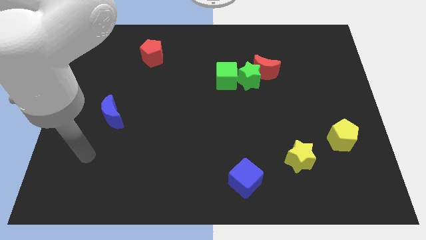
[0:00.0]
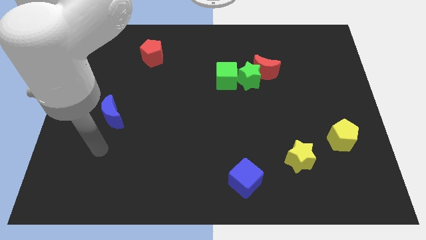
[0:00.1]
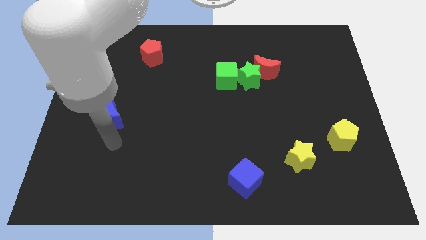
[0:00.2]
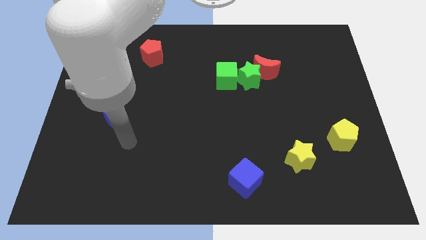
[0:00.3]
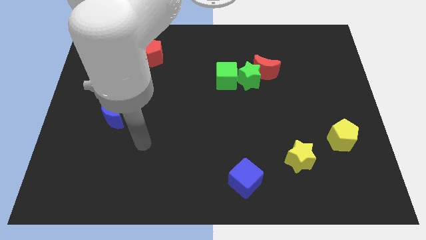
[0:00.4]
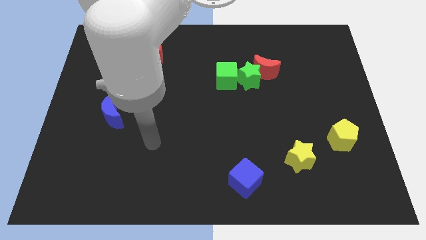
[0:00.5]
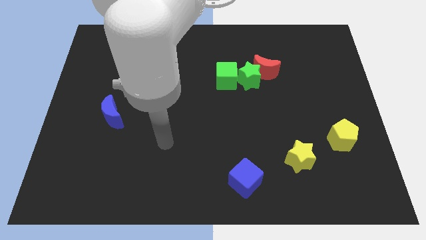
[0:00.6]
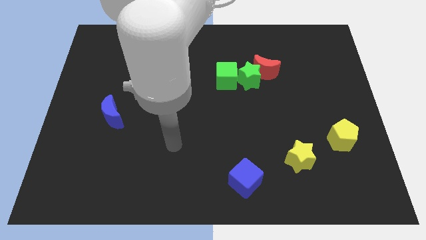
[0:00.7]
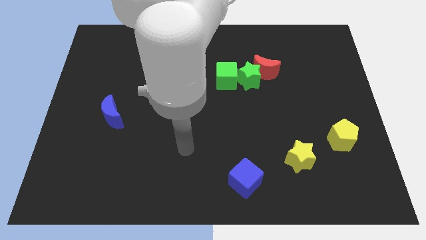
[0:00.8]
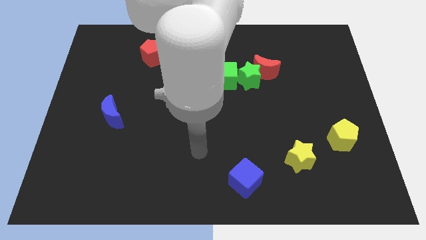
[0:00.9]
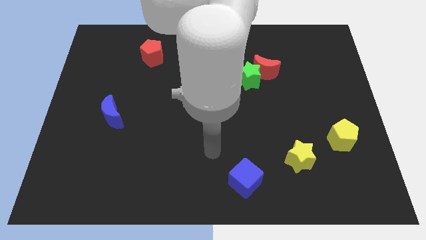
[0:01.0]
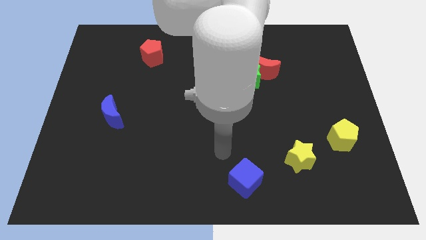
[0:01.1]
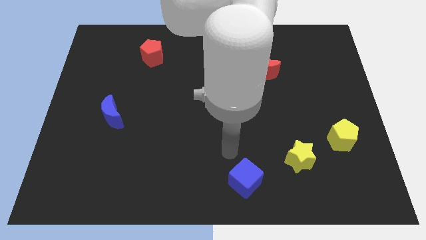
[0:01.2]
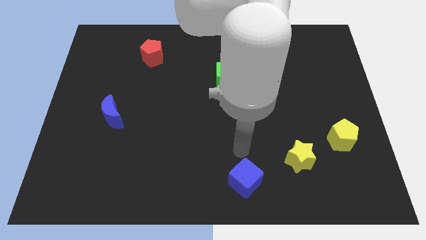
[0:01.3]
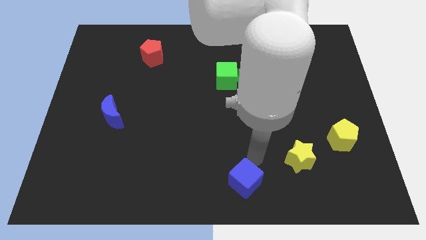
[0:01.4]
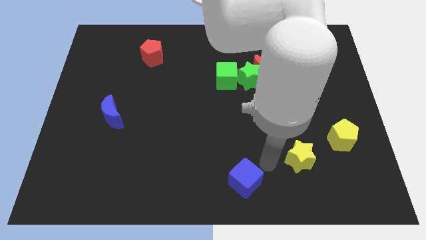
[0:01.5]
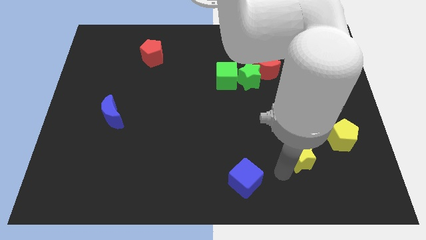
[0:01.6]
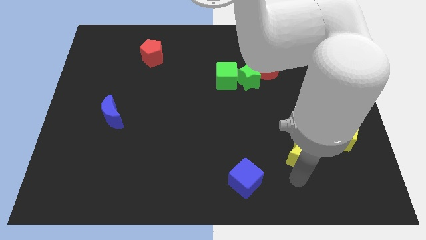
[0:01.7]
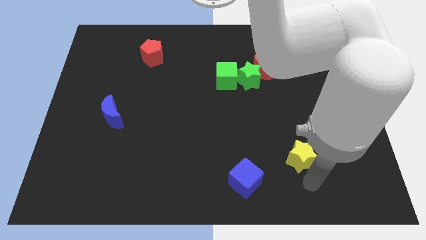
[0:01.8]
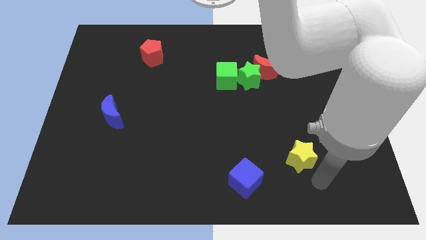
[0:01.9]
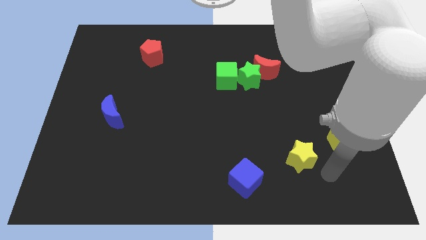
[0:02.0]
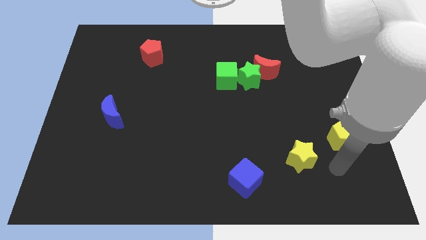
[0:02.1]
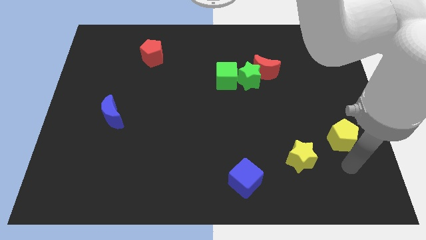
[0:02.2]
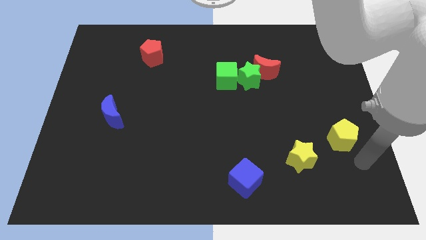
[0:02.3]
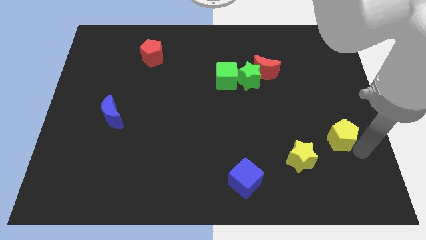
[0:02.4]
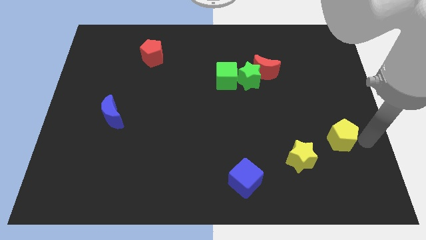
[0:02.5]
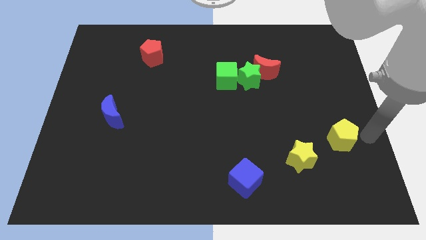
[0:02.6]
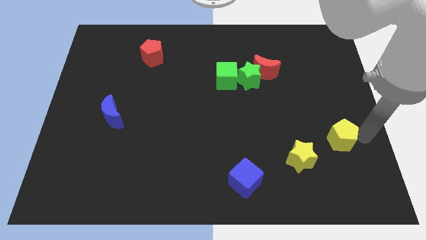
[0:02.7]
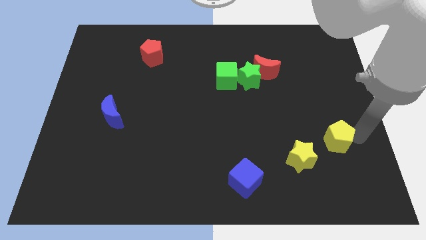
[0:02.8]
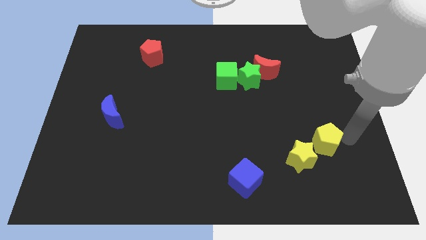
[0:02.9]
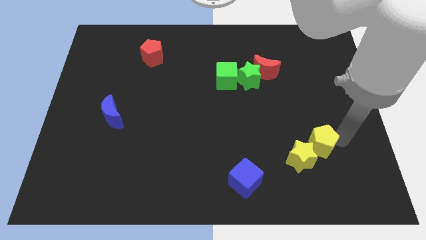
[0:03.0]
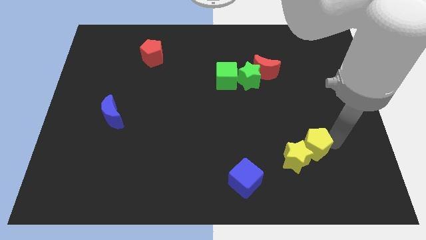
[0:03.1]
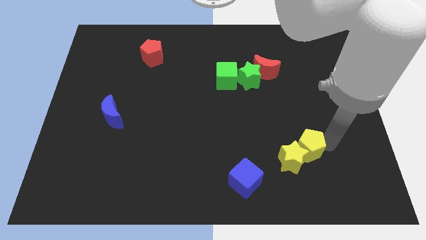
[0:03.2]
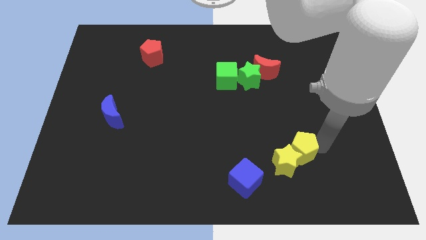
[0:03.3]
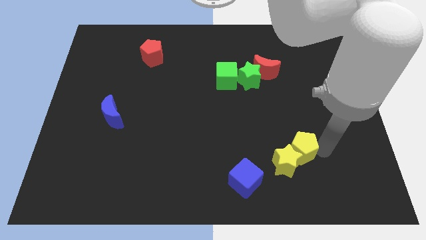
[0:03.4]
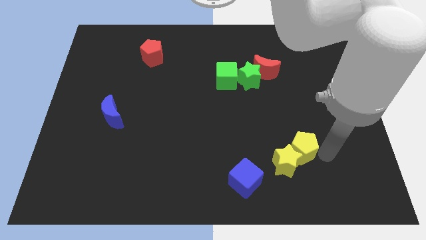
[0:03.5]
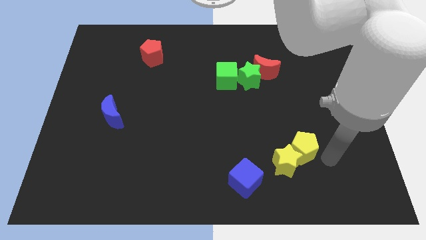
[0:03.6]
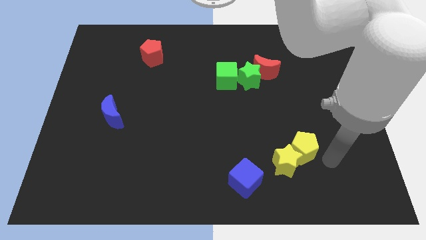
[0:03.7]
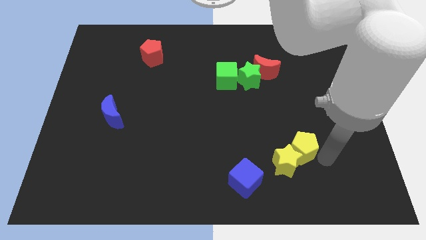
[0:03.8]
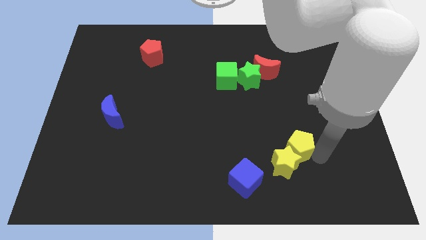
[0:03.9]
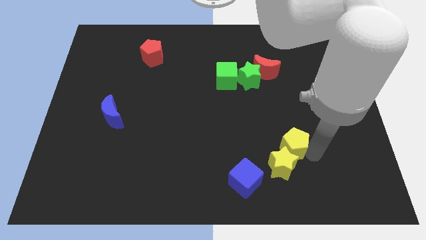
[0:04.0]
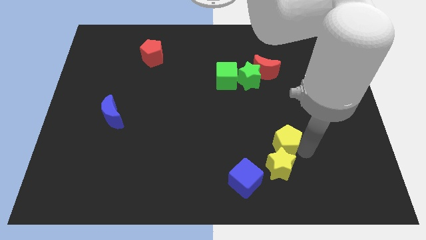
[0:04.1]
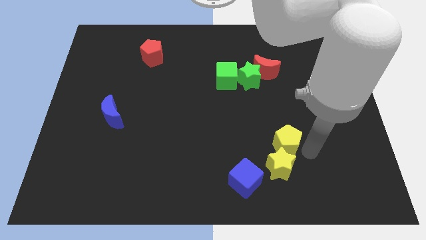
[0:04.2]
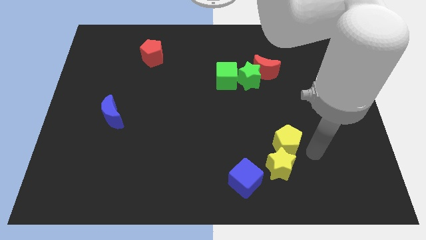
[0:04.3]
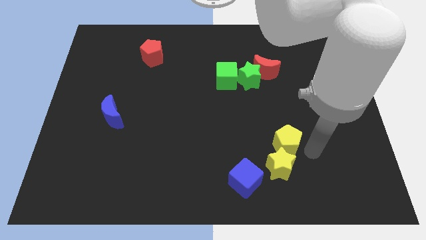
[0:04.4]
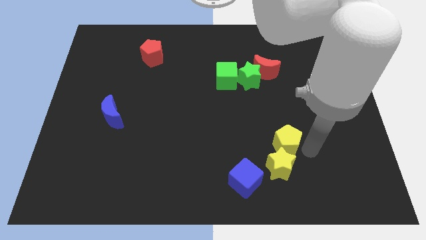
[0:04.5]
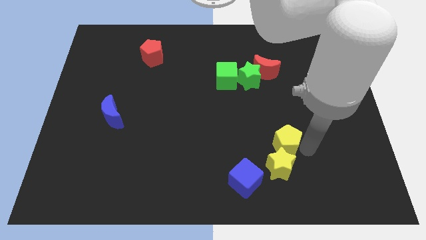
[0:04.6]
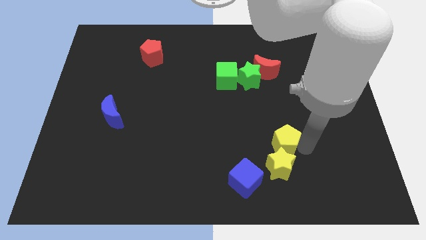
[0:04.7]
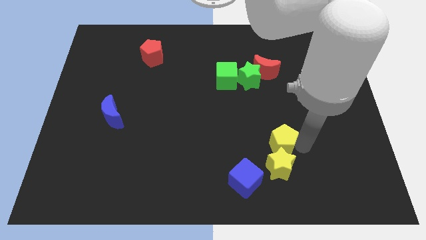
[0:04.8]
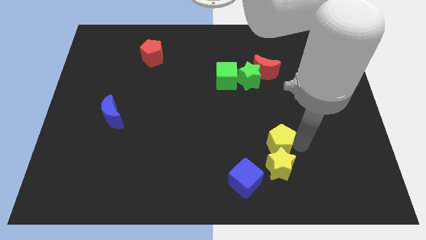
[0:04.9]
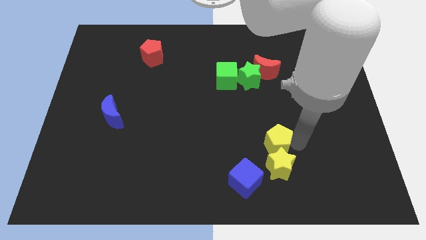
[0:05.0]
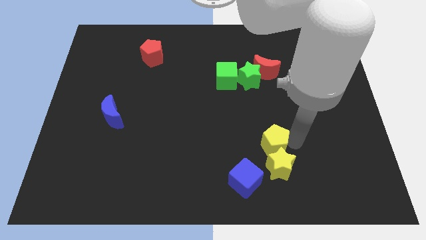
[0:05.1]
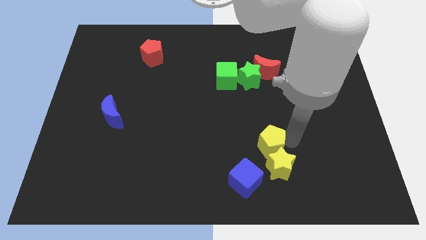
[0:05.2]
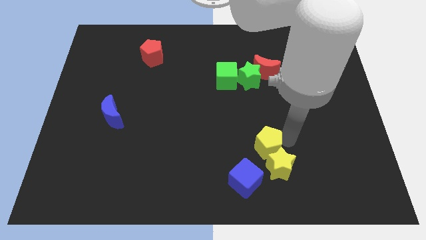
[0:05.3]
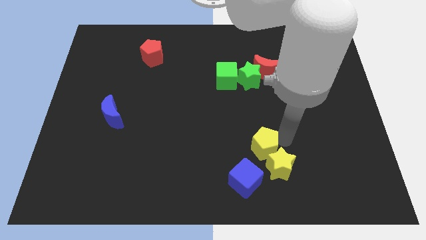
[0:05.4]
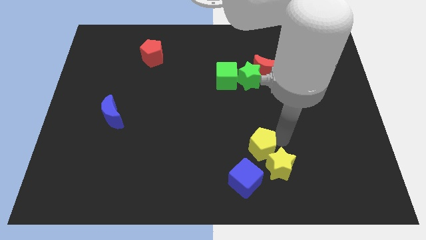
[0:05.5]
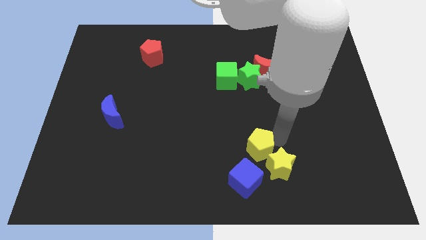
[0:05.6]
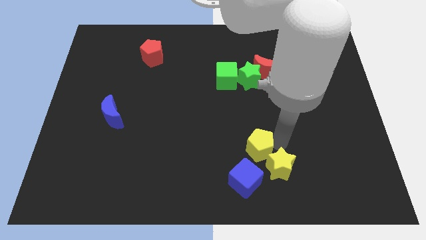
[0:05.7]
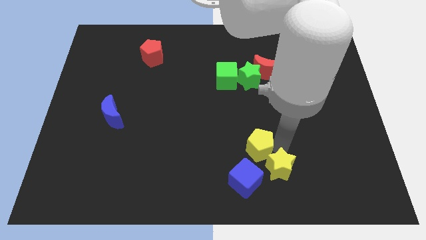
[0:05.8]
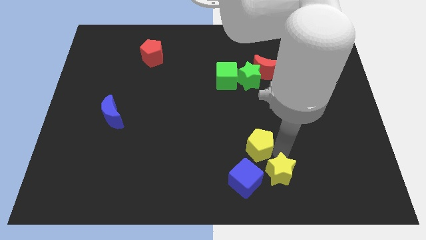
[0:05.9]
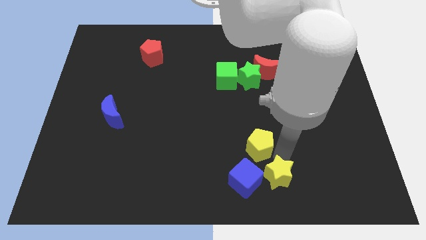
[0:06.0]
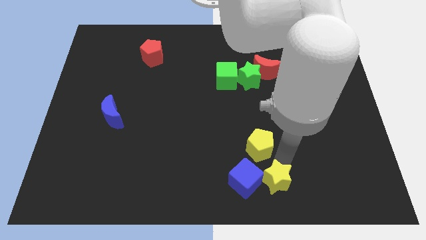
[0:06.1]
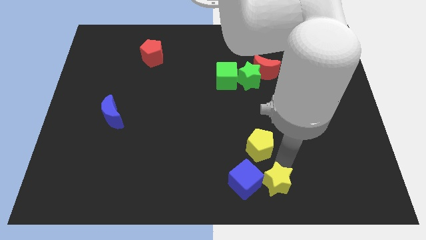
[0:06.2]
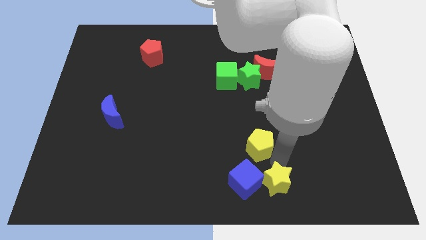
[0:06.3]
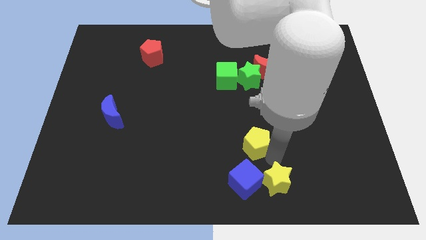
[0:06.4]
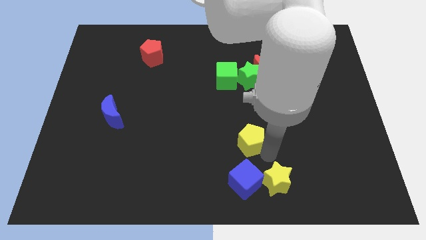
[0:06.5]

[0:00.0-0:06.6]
slide the yellow pentagon left

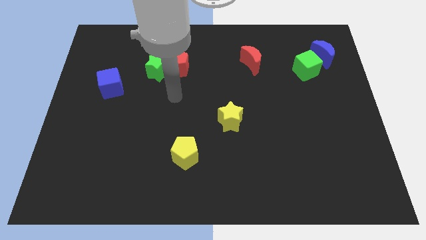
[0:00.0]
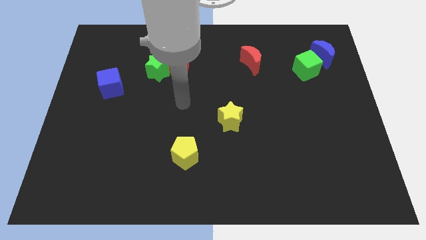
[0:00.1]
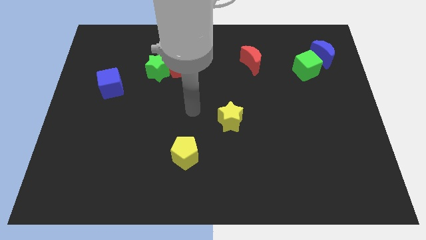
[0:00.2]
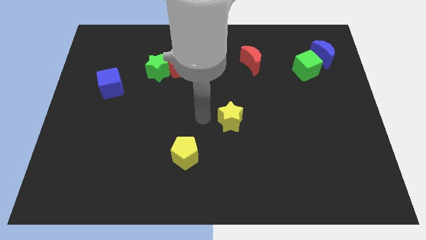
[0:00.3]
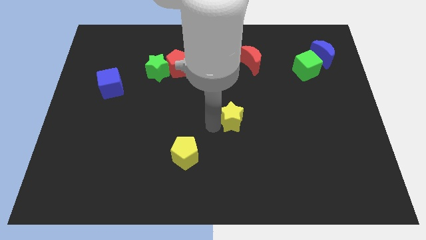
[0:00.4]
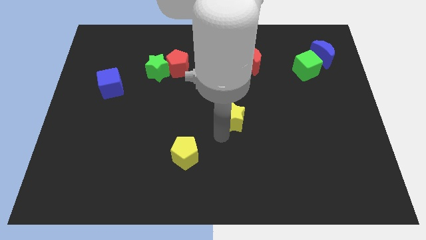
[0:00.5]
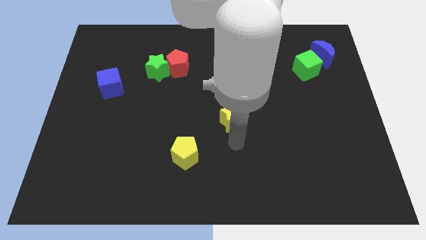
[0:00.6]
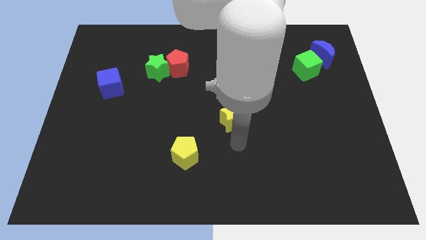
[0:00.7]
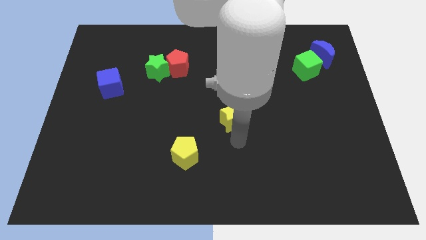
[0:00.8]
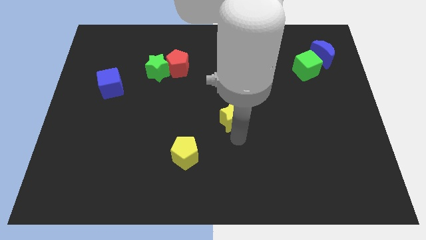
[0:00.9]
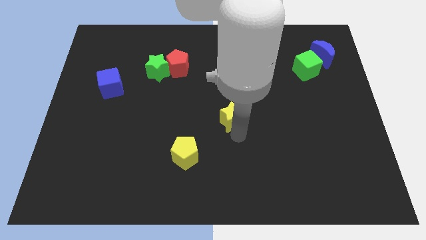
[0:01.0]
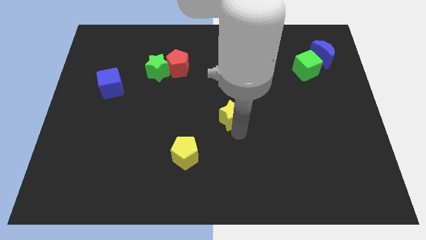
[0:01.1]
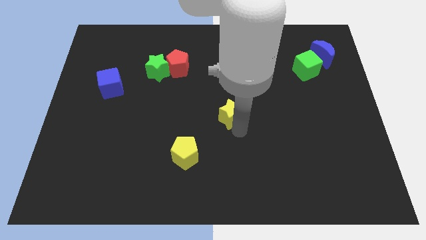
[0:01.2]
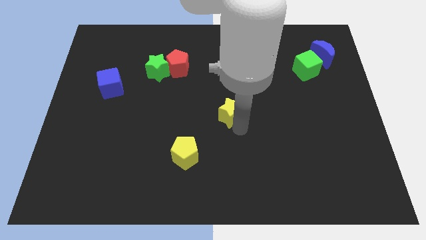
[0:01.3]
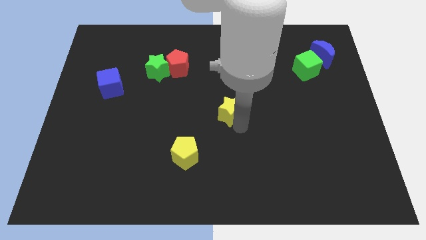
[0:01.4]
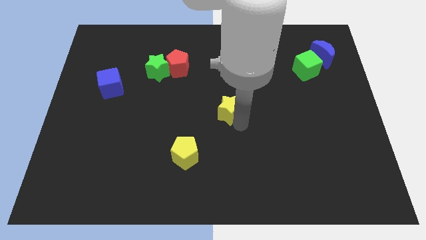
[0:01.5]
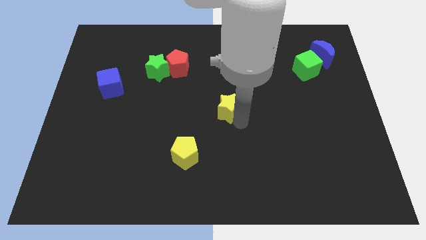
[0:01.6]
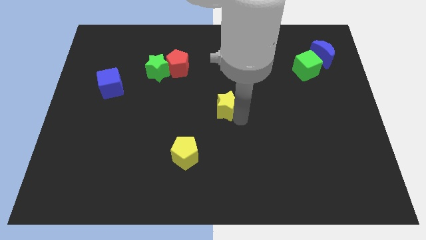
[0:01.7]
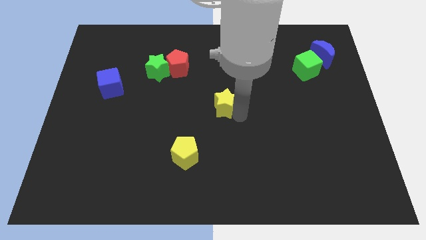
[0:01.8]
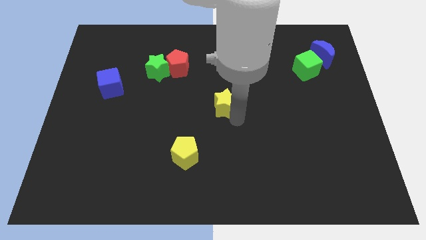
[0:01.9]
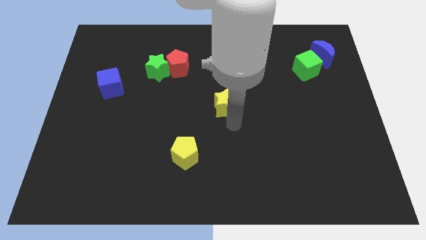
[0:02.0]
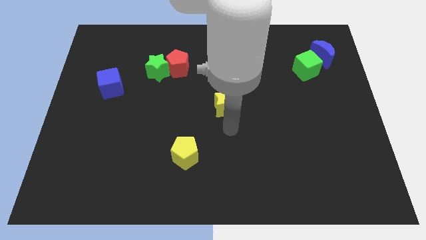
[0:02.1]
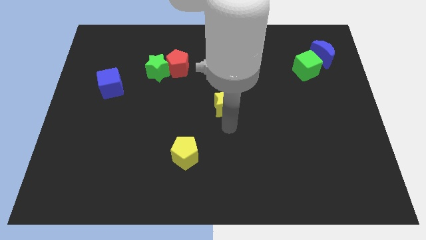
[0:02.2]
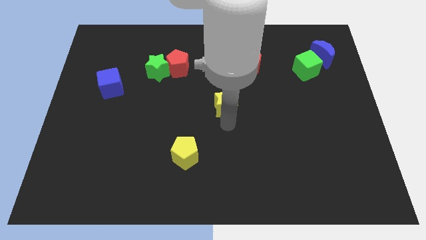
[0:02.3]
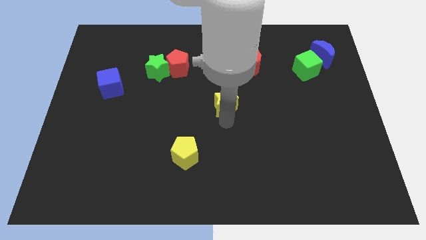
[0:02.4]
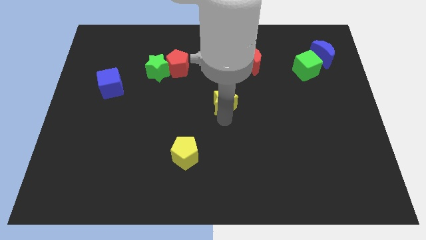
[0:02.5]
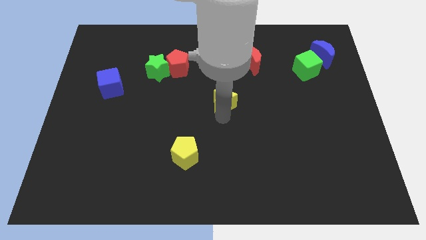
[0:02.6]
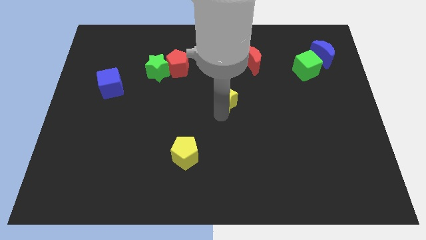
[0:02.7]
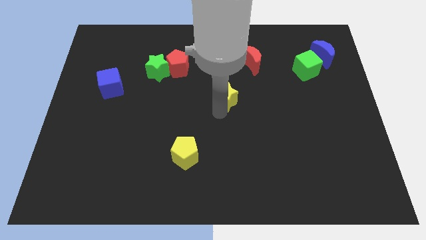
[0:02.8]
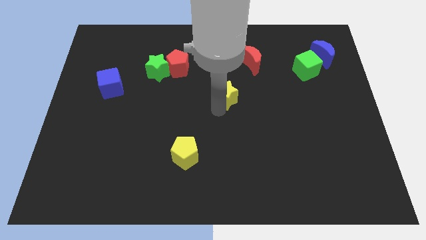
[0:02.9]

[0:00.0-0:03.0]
move the yellow star upwards somewhat
